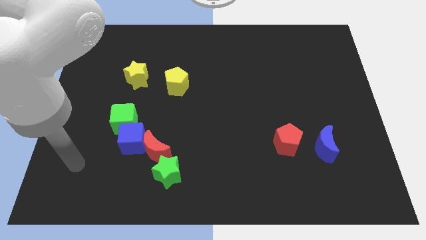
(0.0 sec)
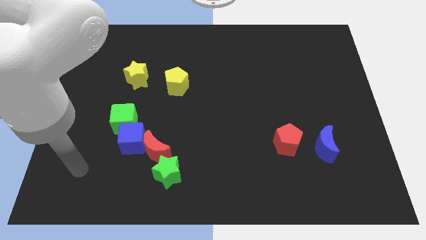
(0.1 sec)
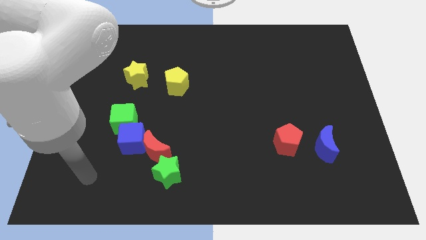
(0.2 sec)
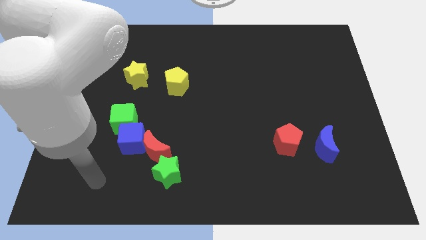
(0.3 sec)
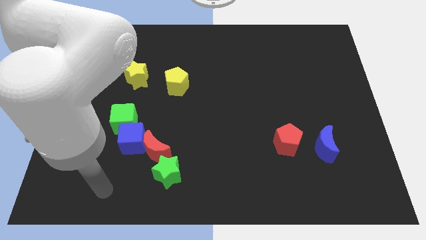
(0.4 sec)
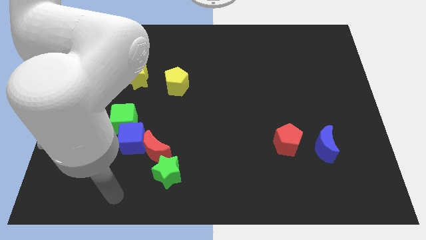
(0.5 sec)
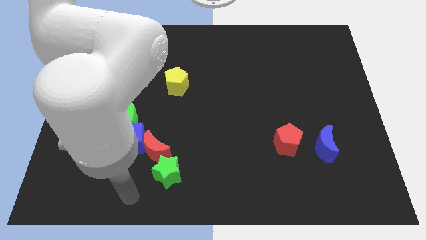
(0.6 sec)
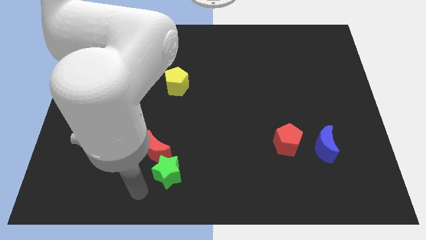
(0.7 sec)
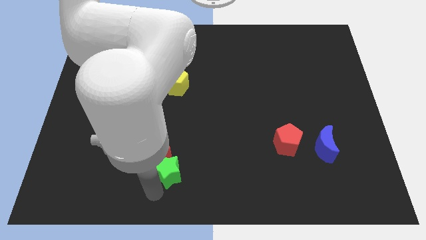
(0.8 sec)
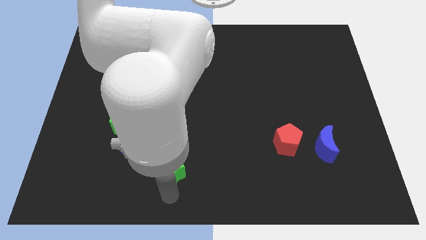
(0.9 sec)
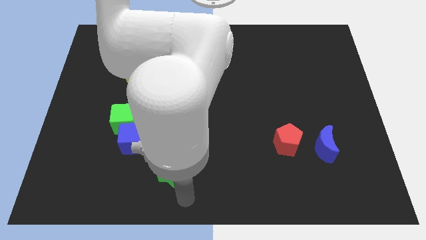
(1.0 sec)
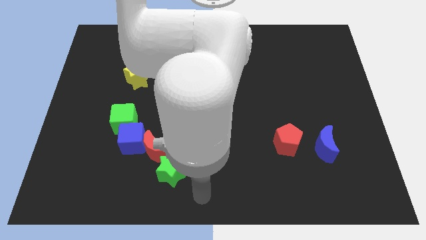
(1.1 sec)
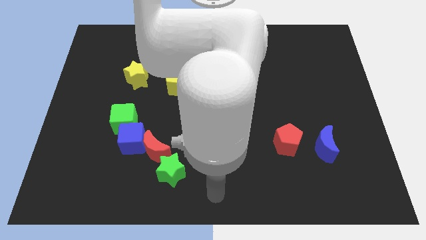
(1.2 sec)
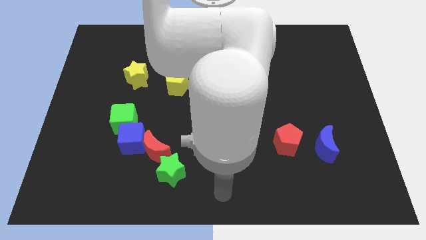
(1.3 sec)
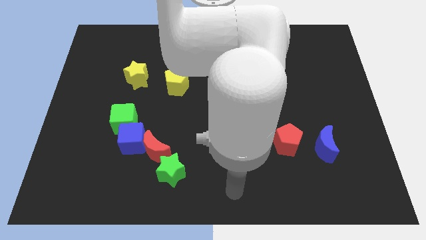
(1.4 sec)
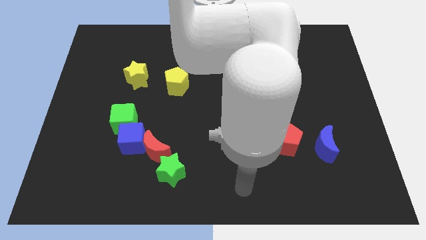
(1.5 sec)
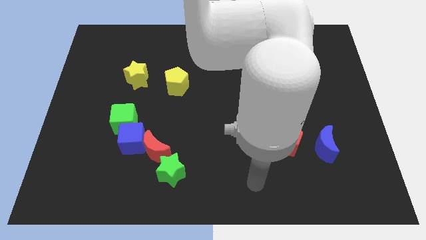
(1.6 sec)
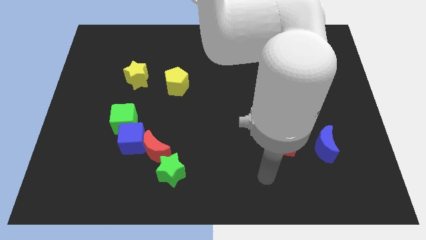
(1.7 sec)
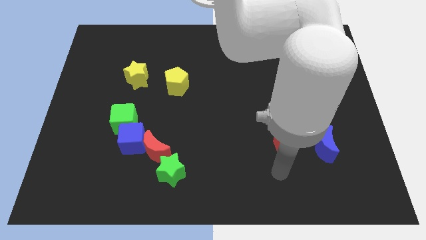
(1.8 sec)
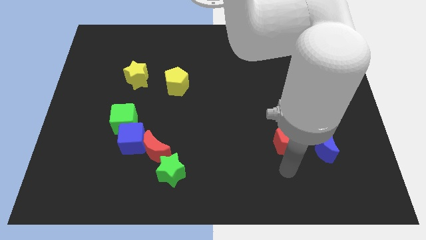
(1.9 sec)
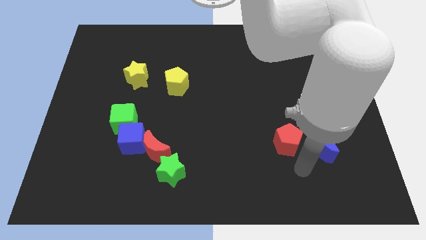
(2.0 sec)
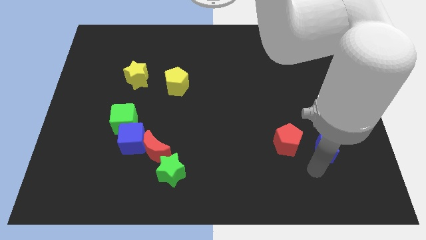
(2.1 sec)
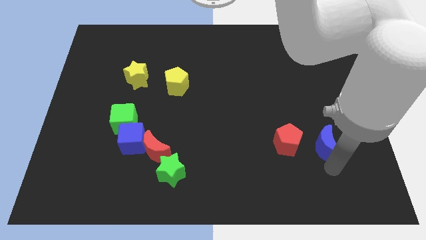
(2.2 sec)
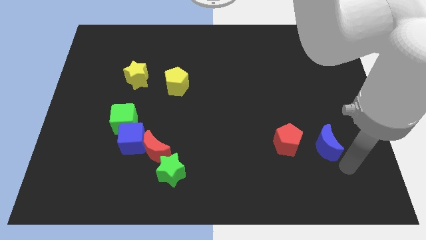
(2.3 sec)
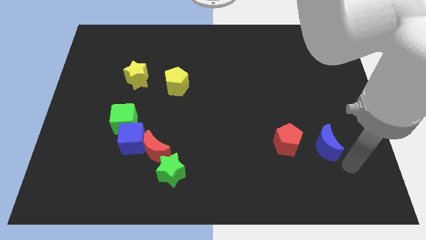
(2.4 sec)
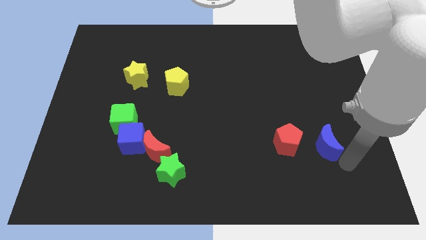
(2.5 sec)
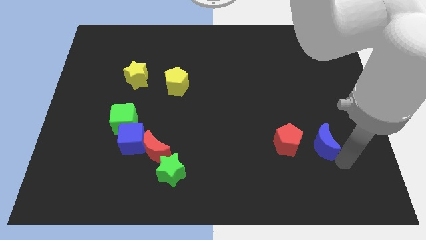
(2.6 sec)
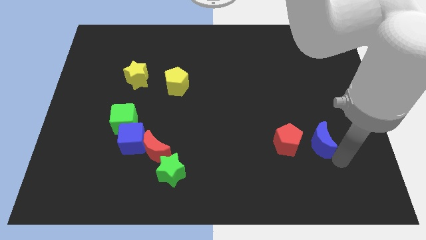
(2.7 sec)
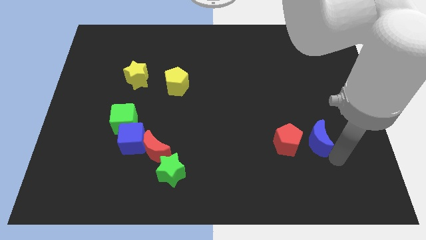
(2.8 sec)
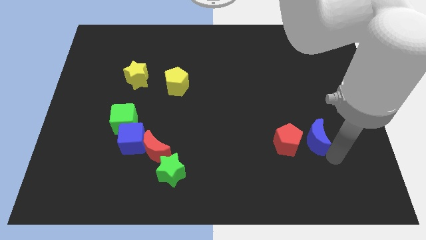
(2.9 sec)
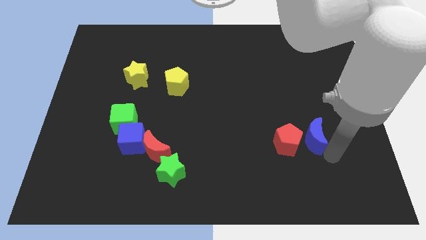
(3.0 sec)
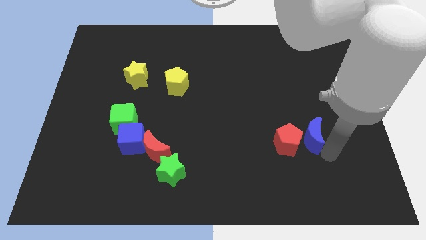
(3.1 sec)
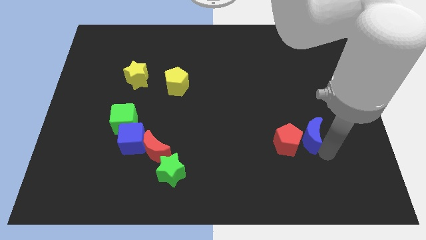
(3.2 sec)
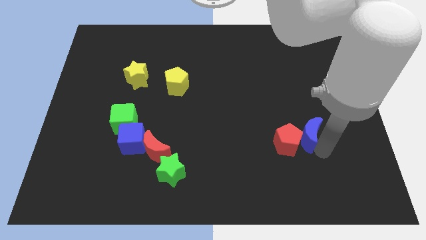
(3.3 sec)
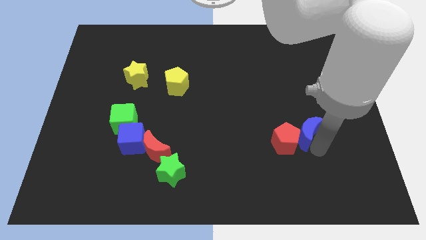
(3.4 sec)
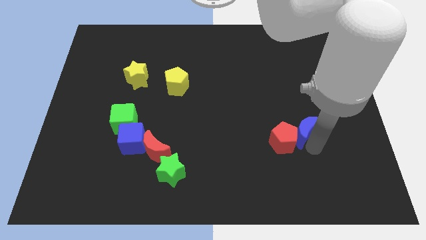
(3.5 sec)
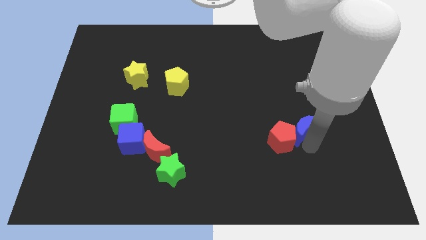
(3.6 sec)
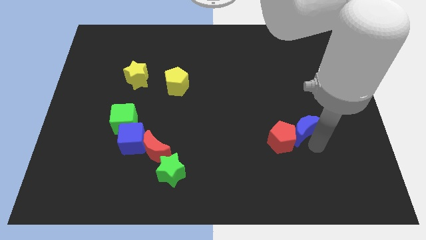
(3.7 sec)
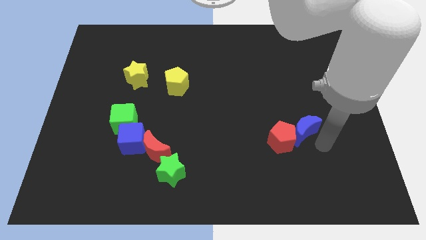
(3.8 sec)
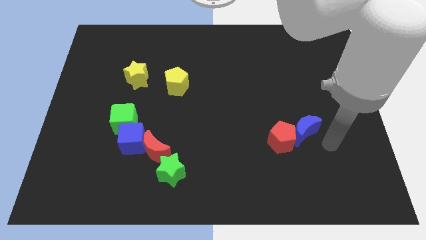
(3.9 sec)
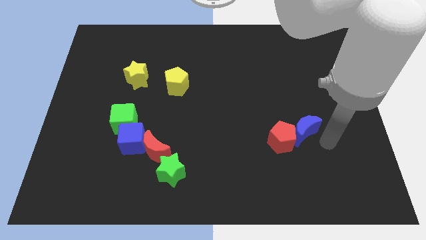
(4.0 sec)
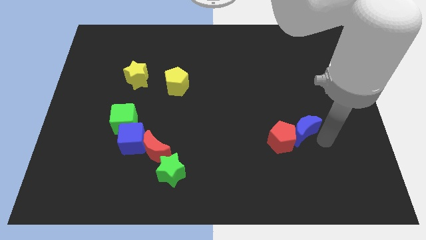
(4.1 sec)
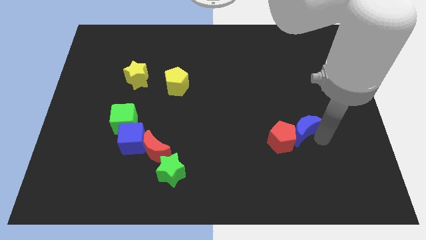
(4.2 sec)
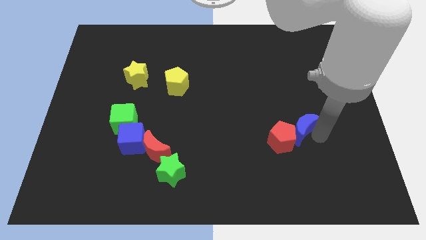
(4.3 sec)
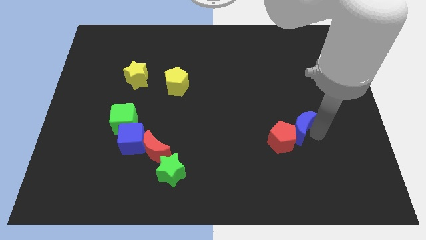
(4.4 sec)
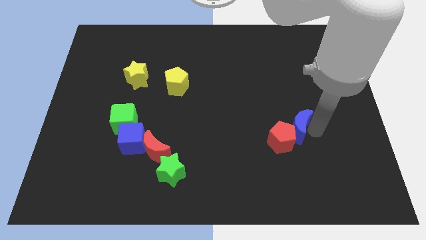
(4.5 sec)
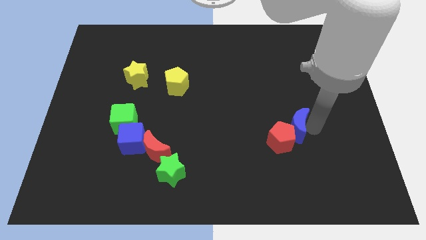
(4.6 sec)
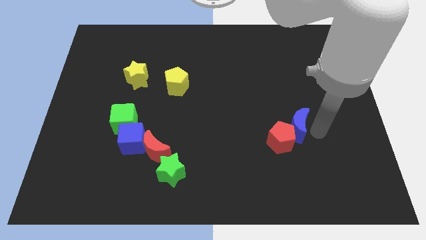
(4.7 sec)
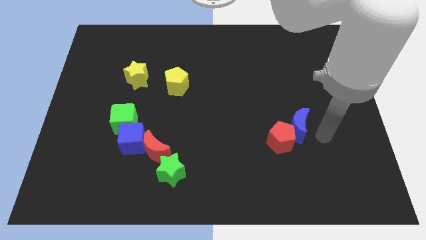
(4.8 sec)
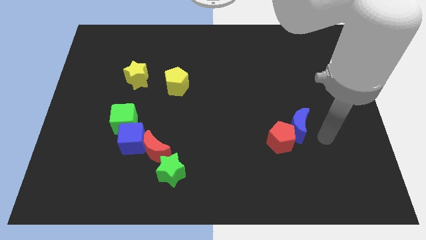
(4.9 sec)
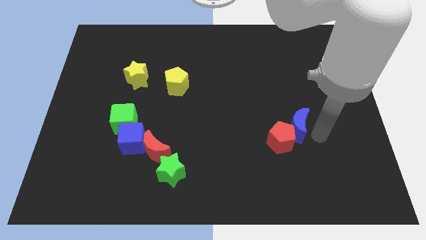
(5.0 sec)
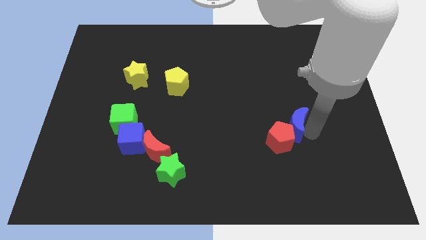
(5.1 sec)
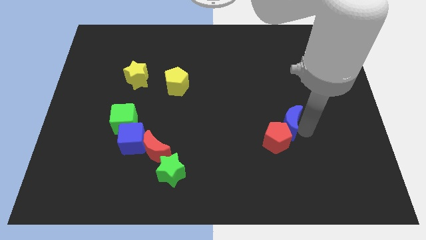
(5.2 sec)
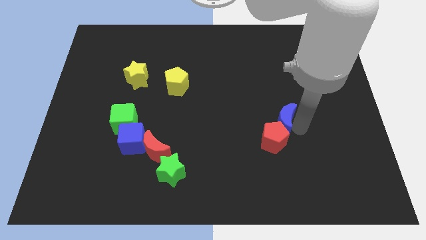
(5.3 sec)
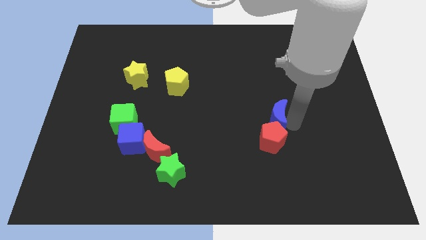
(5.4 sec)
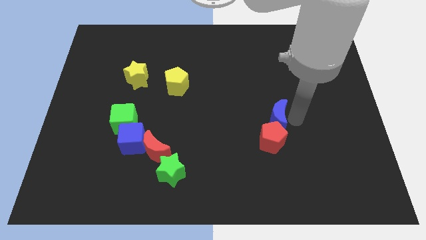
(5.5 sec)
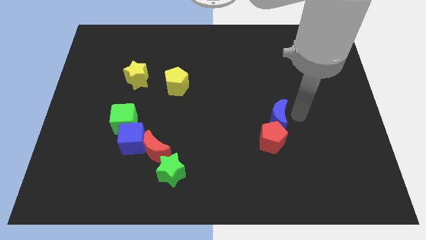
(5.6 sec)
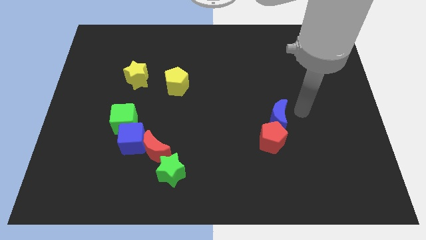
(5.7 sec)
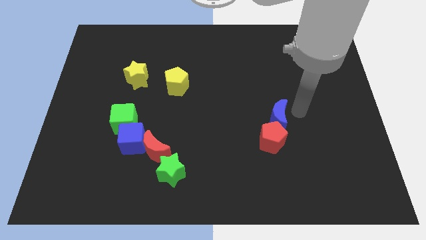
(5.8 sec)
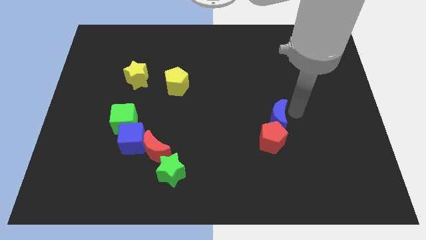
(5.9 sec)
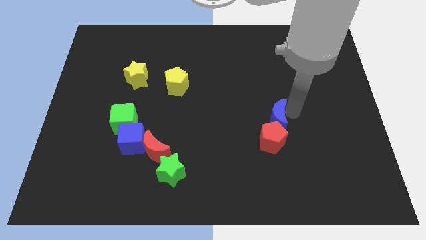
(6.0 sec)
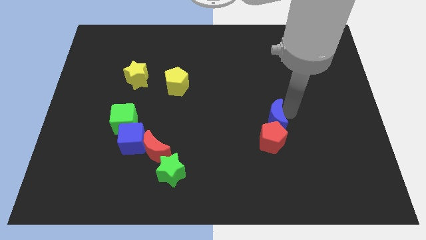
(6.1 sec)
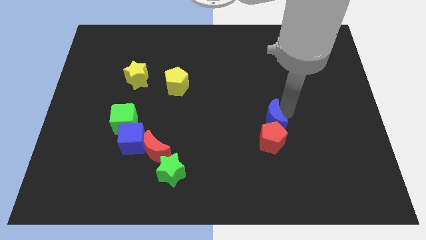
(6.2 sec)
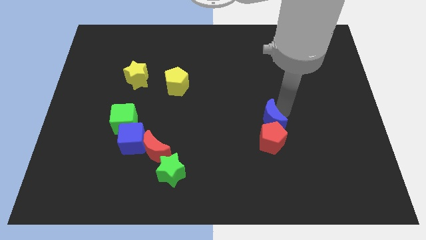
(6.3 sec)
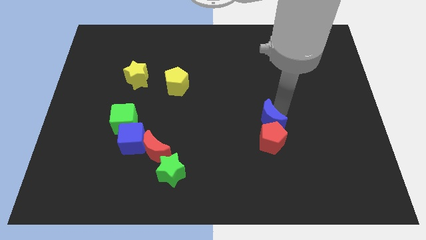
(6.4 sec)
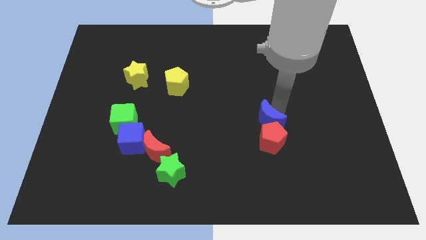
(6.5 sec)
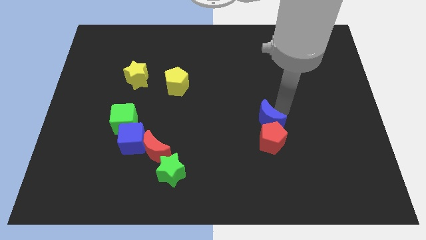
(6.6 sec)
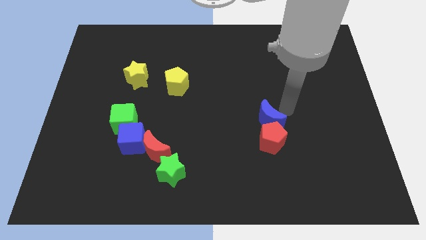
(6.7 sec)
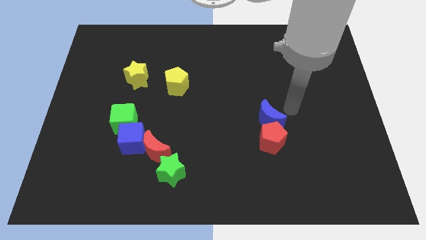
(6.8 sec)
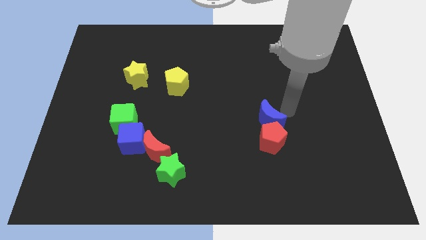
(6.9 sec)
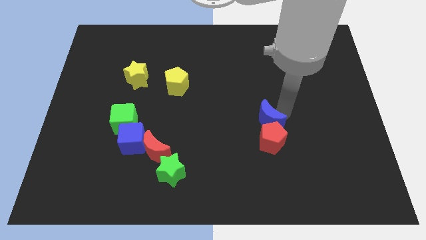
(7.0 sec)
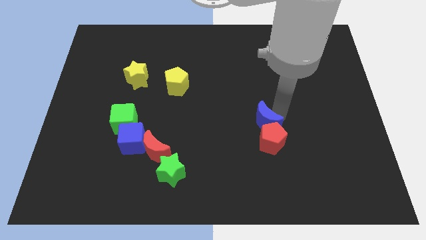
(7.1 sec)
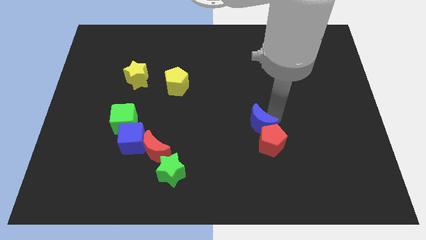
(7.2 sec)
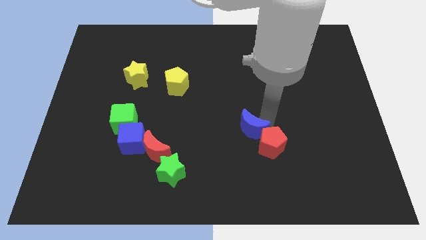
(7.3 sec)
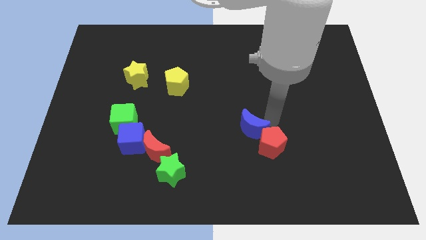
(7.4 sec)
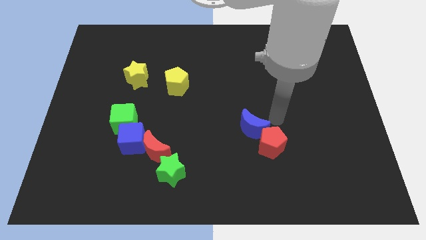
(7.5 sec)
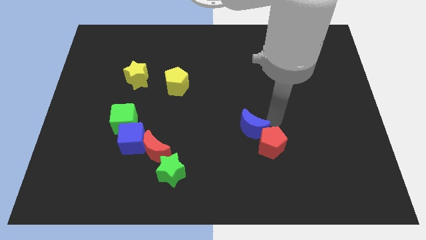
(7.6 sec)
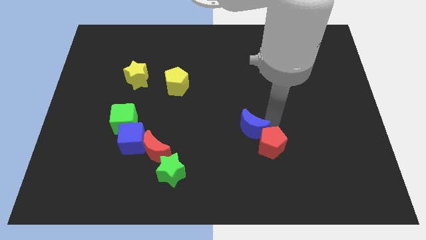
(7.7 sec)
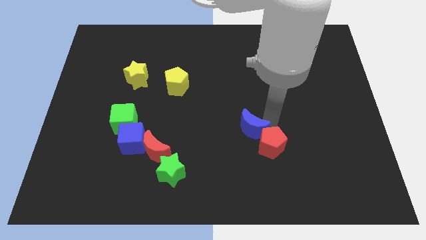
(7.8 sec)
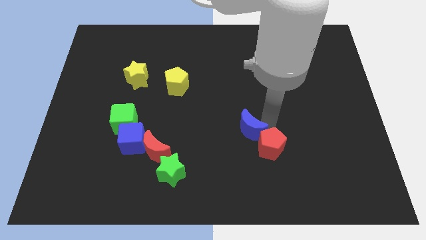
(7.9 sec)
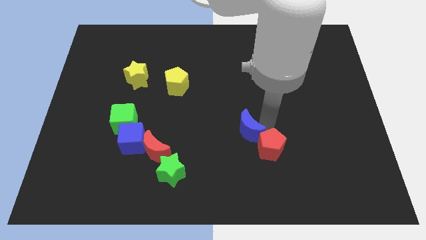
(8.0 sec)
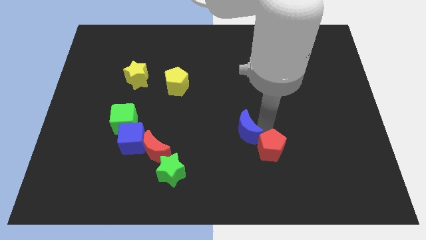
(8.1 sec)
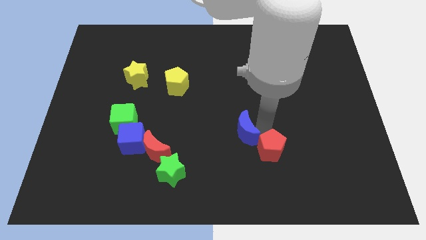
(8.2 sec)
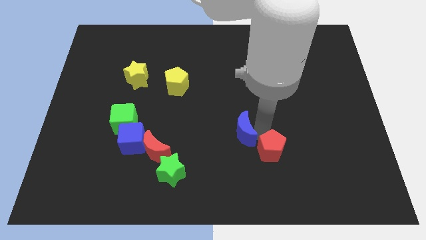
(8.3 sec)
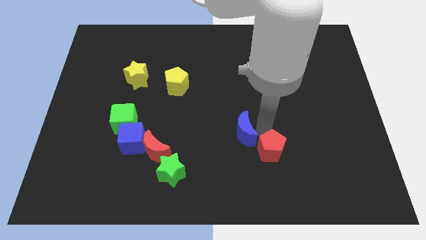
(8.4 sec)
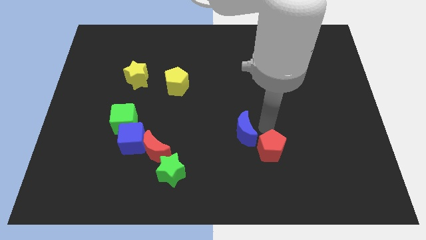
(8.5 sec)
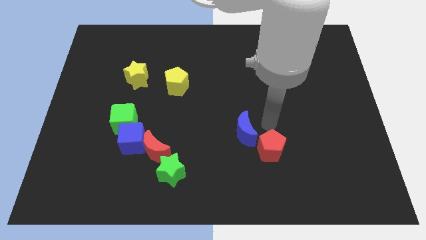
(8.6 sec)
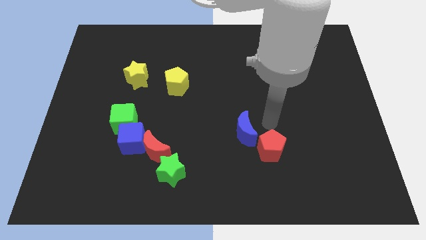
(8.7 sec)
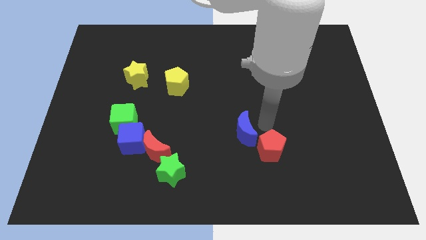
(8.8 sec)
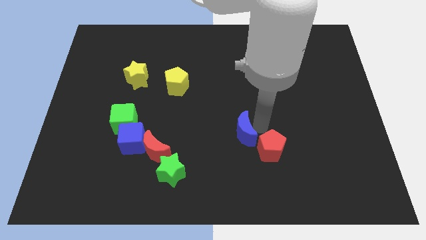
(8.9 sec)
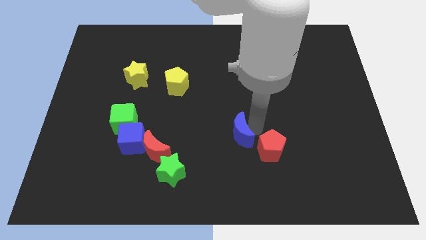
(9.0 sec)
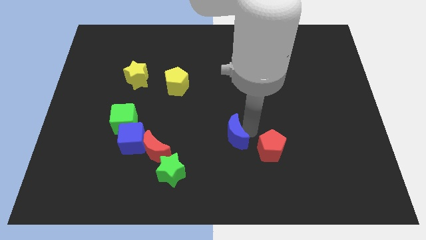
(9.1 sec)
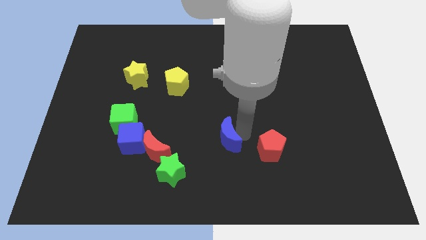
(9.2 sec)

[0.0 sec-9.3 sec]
slide the blue moon left
